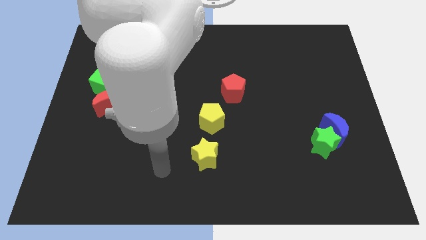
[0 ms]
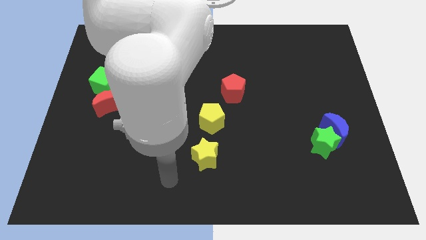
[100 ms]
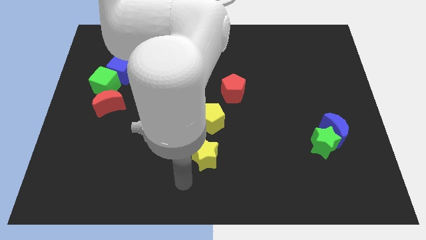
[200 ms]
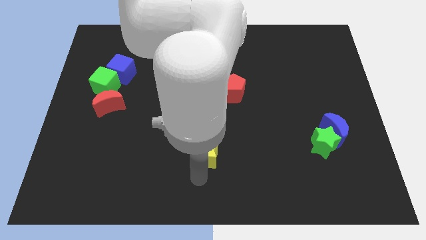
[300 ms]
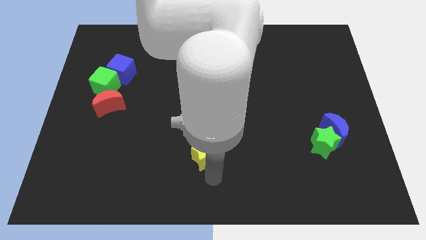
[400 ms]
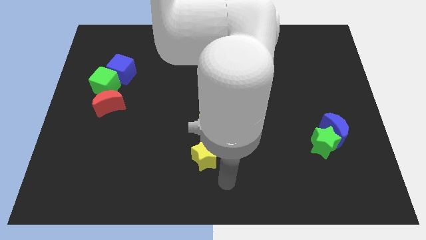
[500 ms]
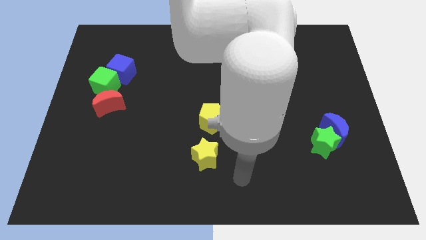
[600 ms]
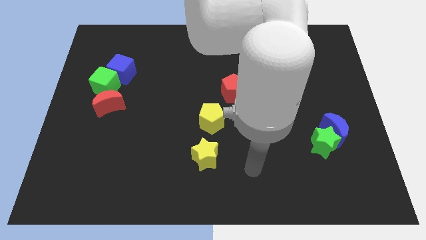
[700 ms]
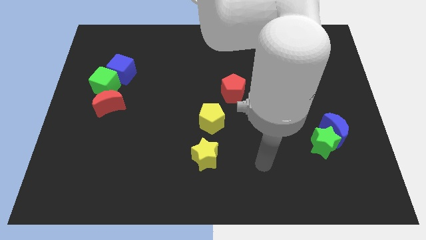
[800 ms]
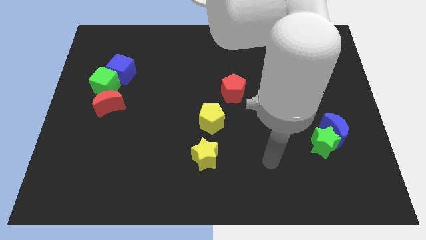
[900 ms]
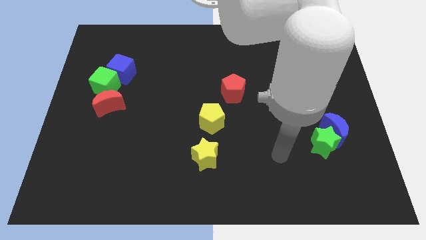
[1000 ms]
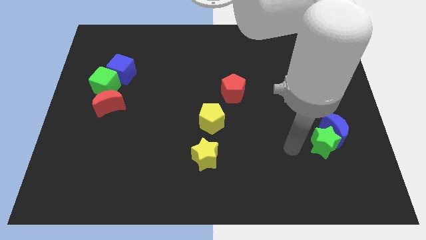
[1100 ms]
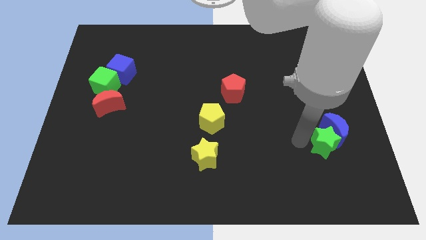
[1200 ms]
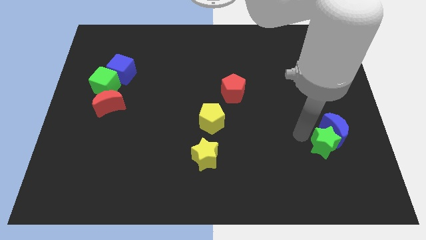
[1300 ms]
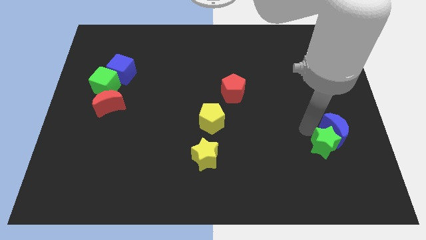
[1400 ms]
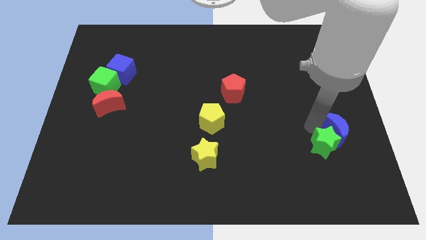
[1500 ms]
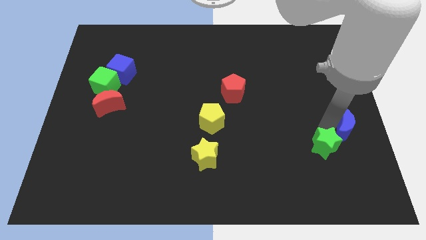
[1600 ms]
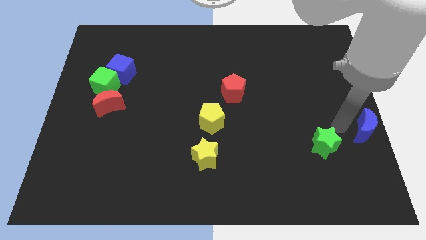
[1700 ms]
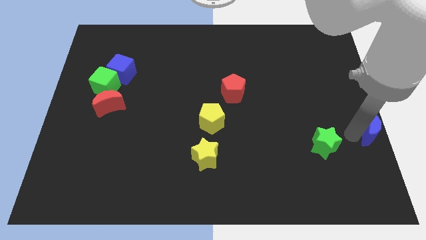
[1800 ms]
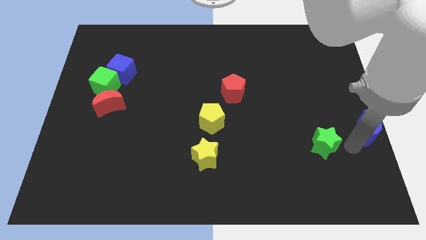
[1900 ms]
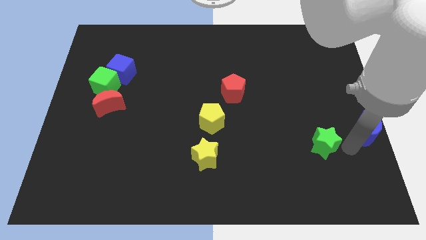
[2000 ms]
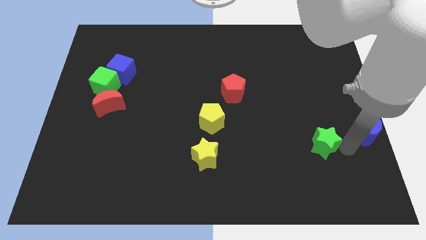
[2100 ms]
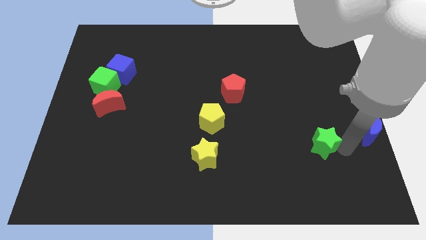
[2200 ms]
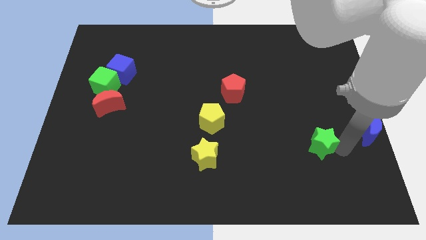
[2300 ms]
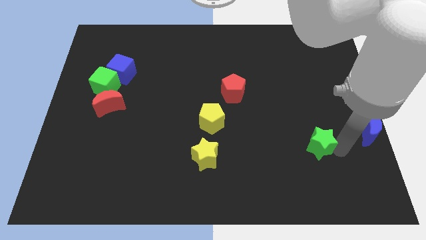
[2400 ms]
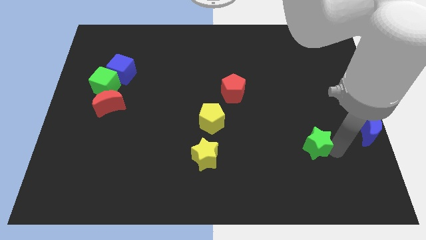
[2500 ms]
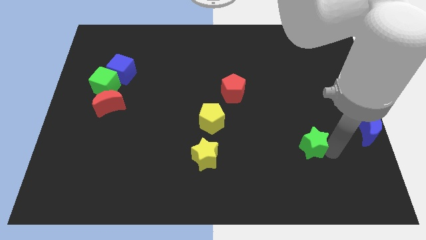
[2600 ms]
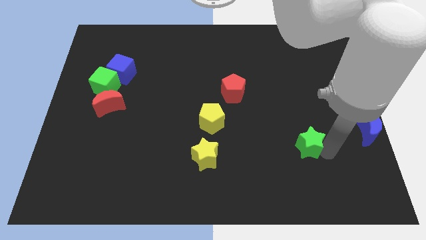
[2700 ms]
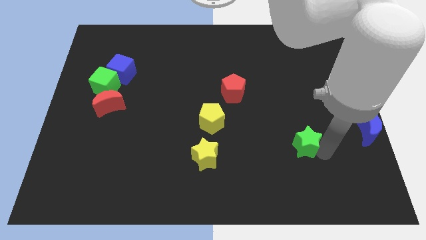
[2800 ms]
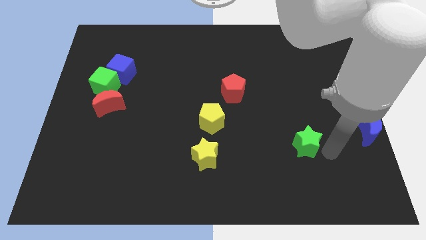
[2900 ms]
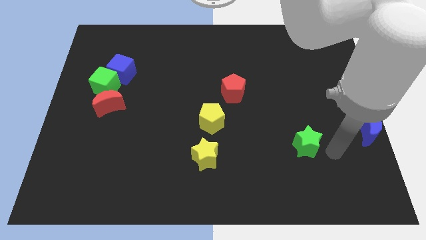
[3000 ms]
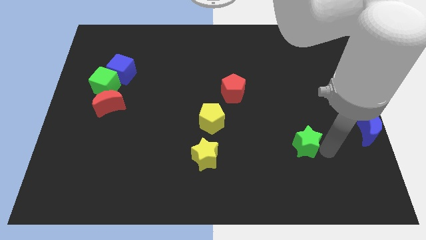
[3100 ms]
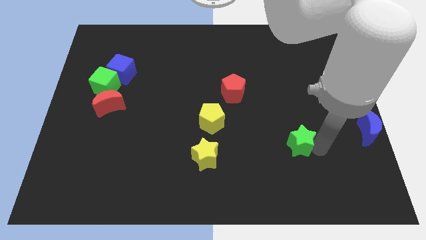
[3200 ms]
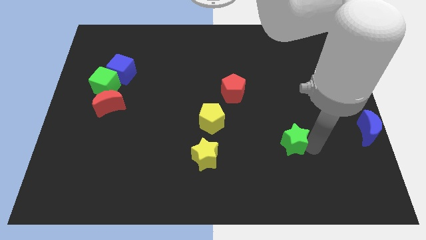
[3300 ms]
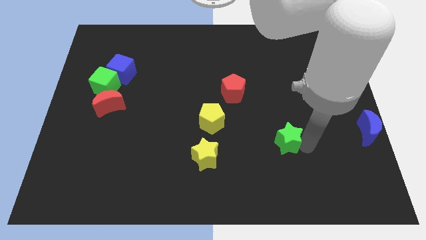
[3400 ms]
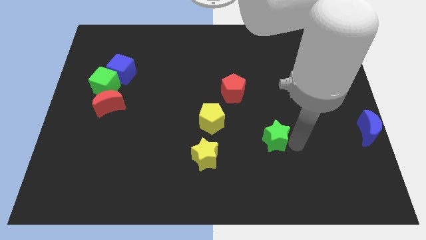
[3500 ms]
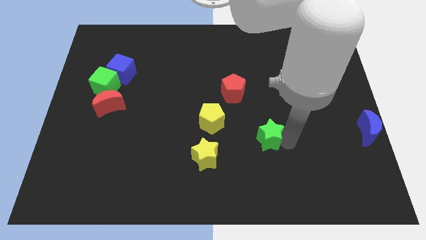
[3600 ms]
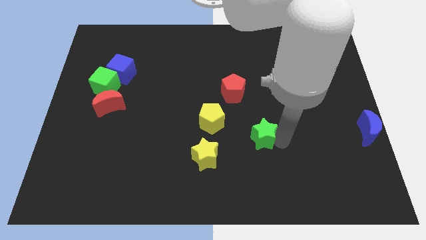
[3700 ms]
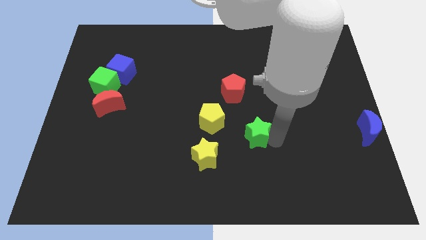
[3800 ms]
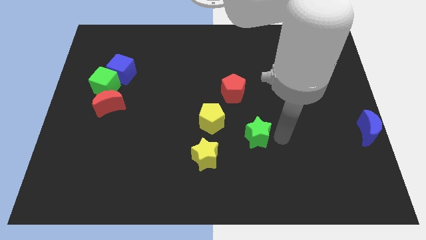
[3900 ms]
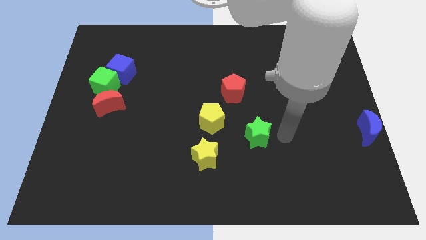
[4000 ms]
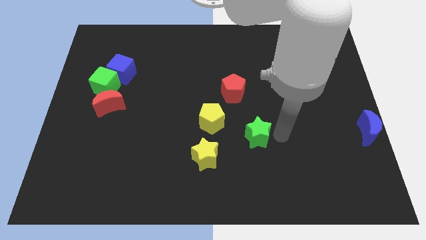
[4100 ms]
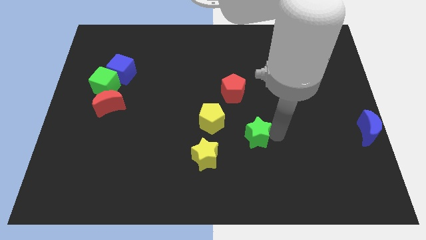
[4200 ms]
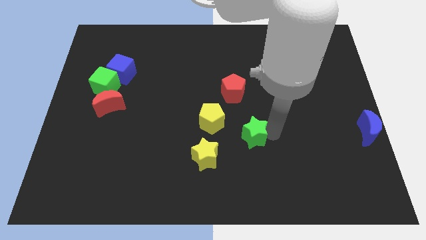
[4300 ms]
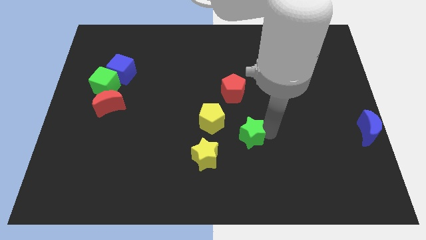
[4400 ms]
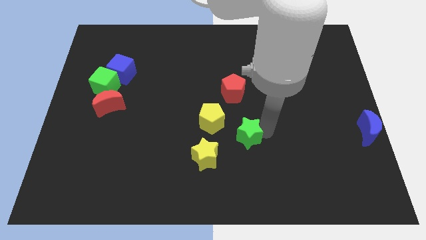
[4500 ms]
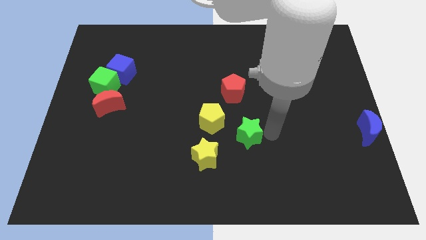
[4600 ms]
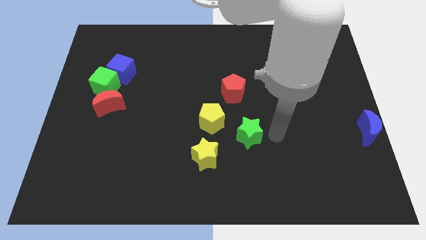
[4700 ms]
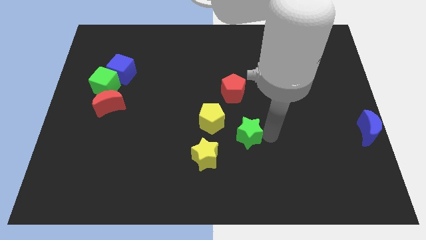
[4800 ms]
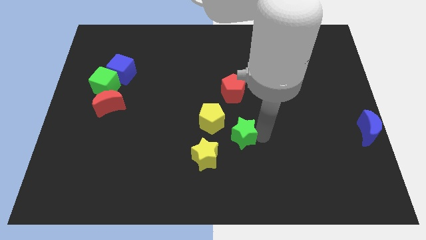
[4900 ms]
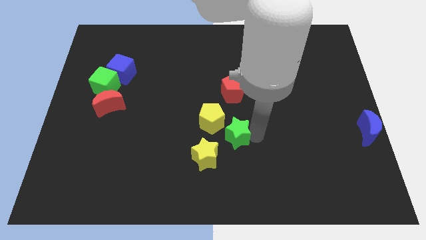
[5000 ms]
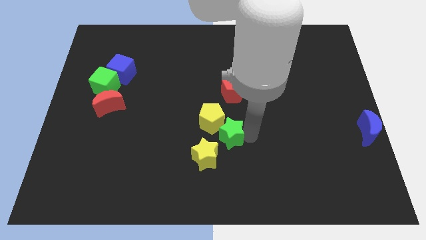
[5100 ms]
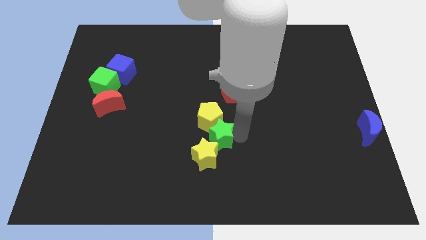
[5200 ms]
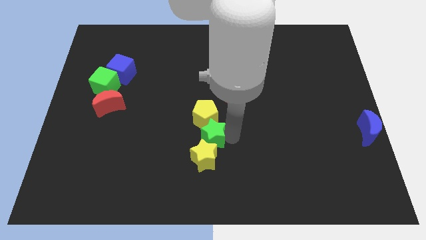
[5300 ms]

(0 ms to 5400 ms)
put the green star diagonally down and to the left of the yellow pentagon

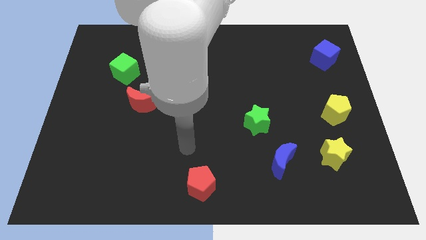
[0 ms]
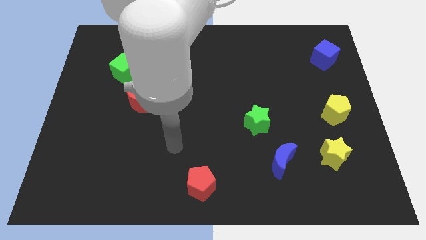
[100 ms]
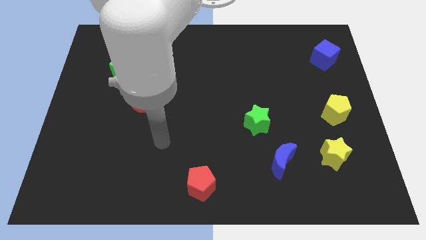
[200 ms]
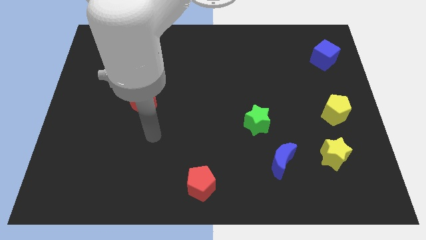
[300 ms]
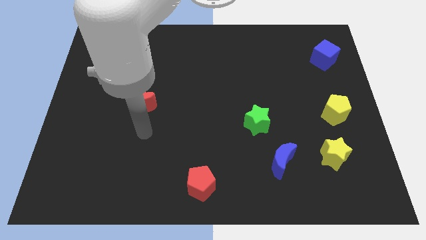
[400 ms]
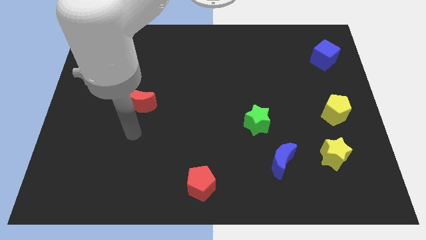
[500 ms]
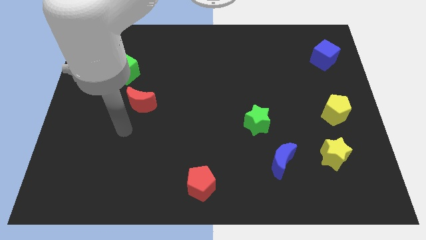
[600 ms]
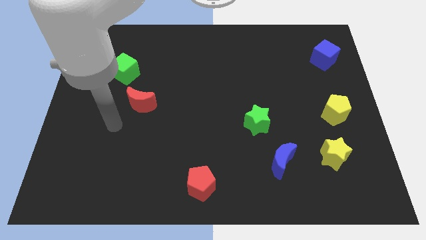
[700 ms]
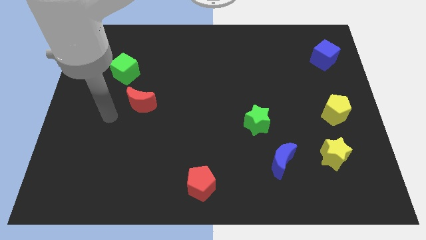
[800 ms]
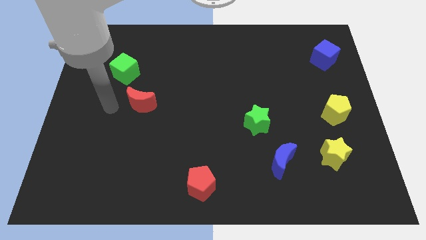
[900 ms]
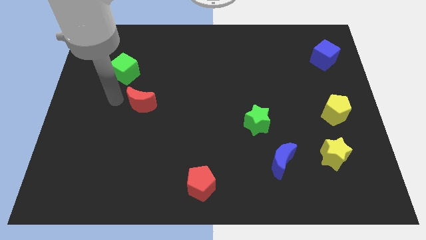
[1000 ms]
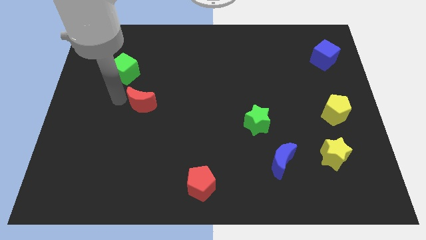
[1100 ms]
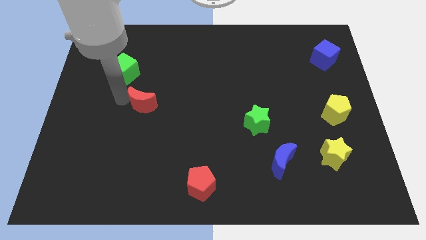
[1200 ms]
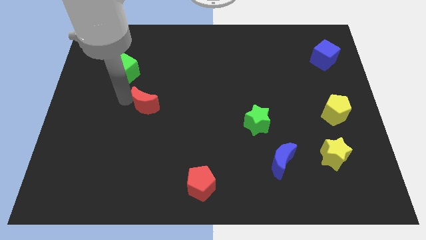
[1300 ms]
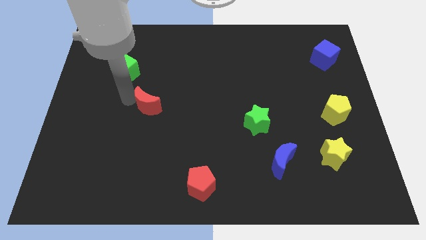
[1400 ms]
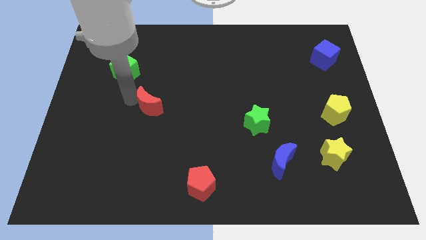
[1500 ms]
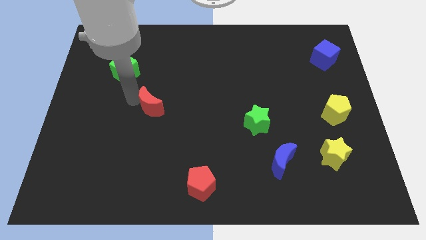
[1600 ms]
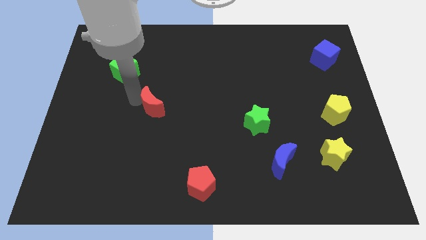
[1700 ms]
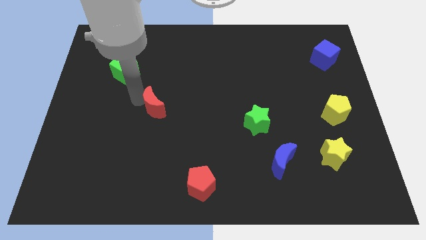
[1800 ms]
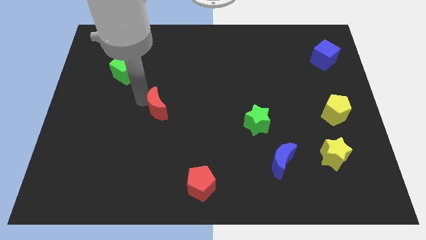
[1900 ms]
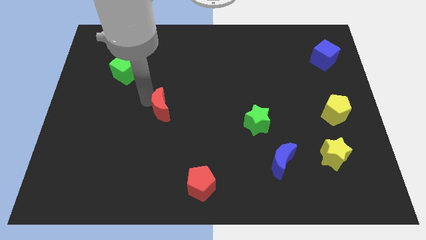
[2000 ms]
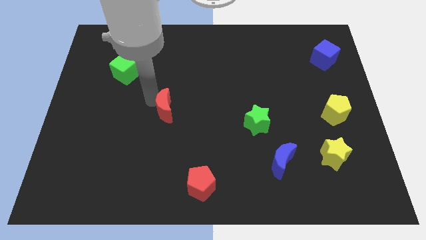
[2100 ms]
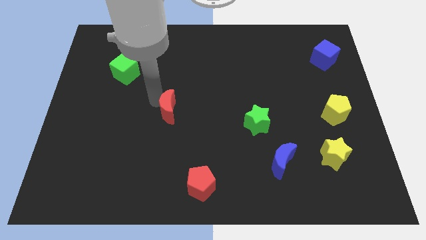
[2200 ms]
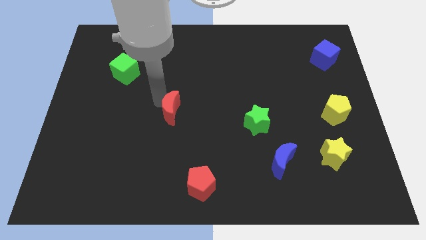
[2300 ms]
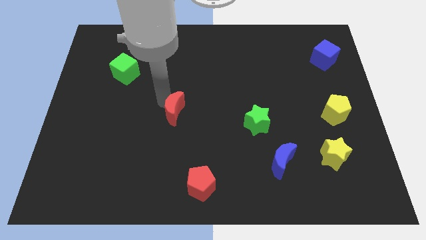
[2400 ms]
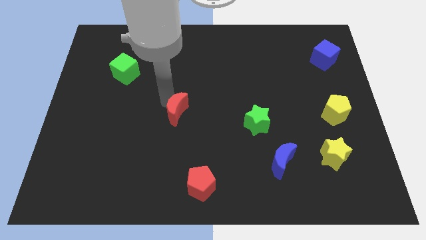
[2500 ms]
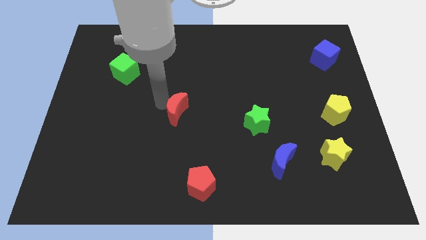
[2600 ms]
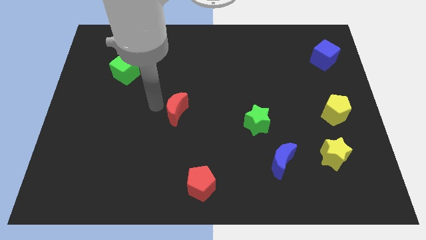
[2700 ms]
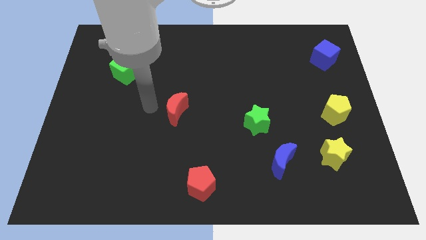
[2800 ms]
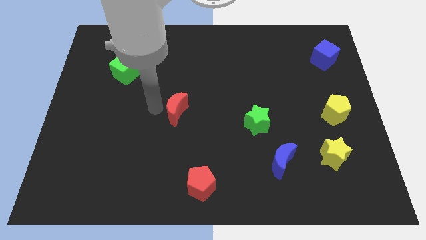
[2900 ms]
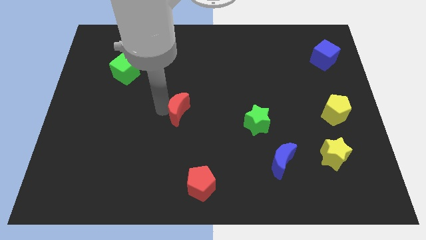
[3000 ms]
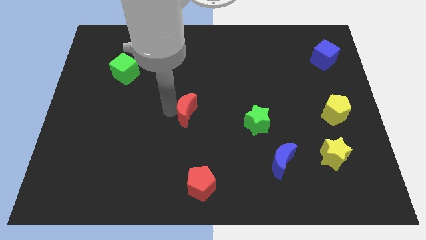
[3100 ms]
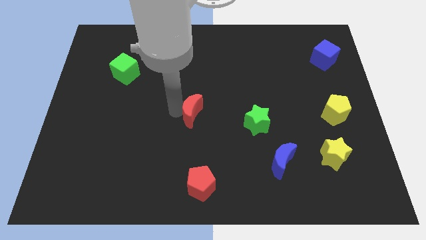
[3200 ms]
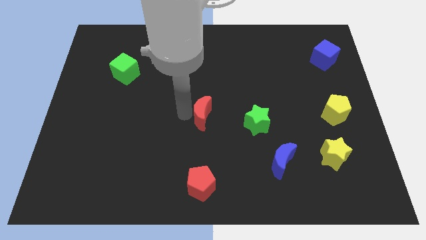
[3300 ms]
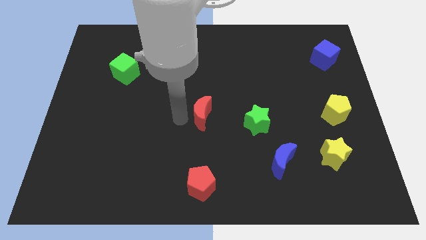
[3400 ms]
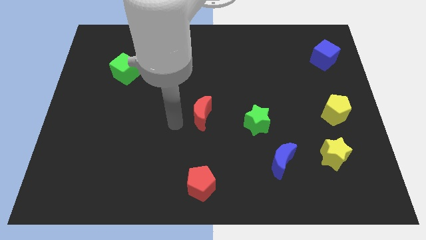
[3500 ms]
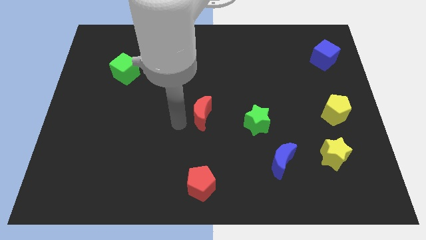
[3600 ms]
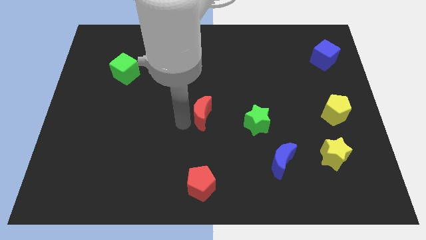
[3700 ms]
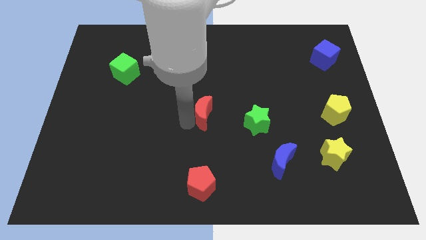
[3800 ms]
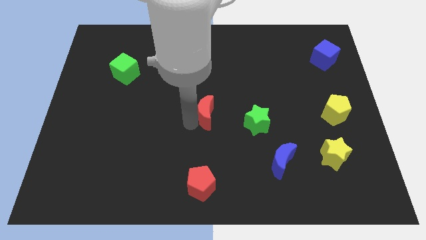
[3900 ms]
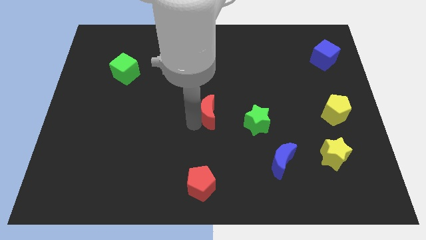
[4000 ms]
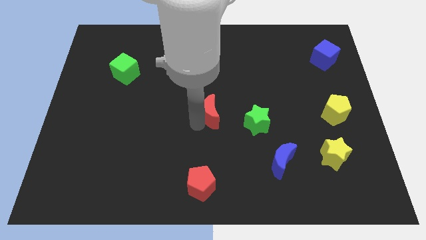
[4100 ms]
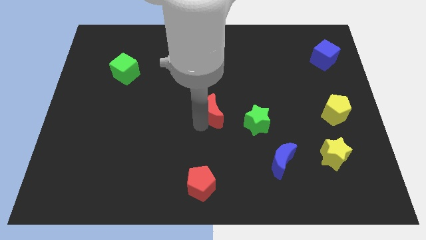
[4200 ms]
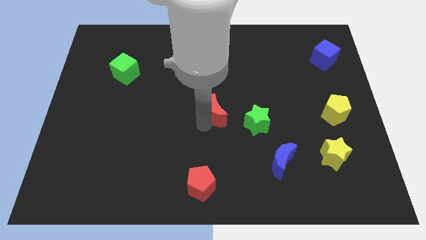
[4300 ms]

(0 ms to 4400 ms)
put the red moon to the top left of the green star
